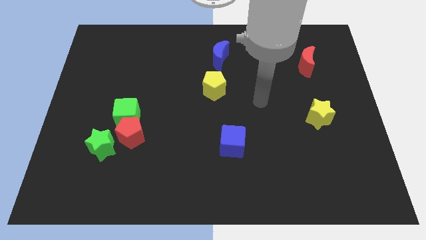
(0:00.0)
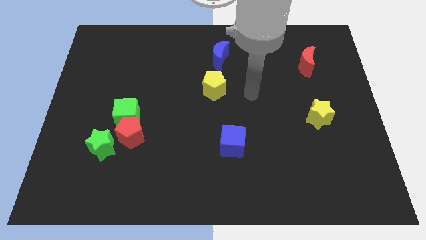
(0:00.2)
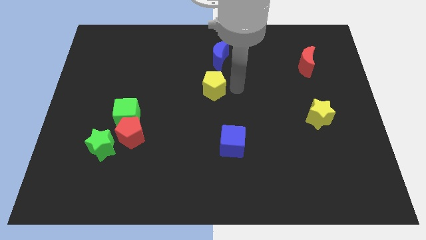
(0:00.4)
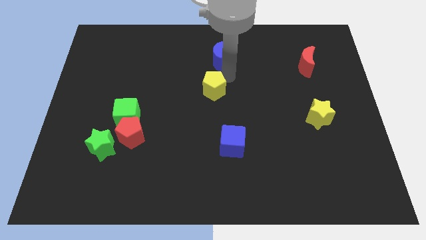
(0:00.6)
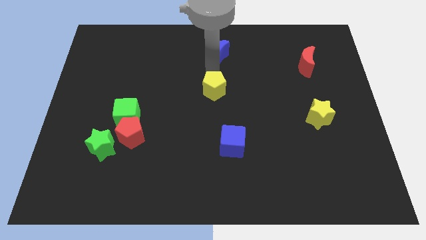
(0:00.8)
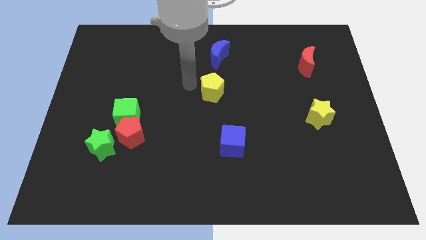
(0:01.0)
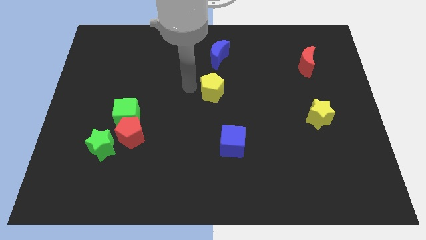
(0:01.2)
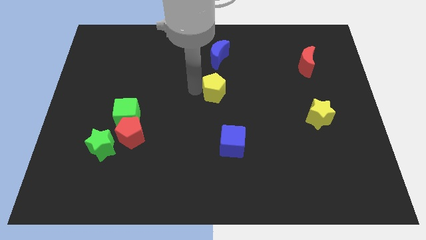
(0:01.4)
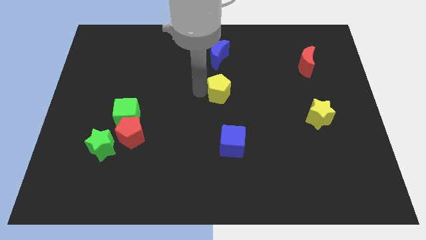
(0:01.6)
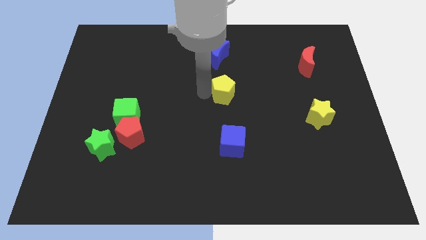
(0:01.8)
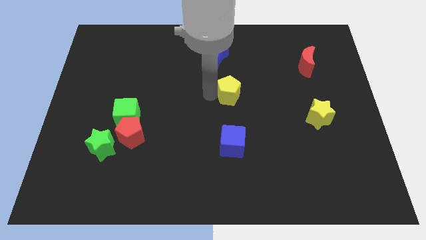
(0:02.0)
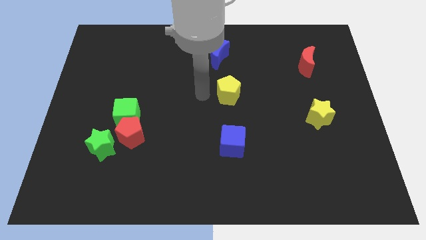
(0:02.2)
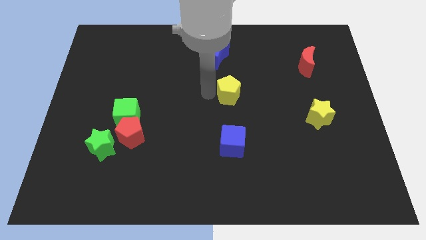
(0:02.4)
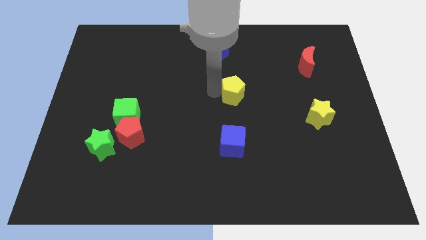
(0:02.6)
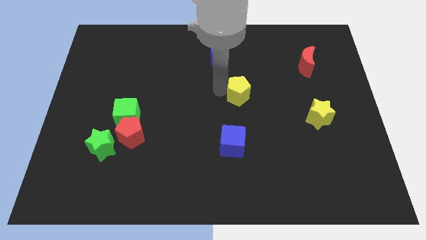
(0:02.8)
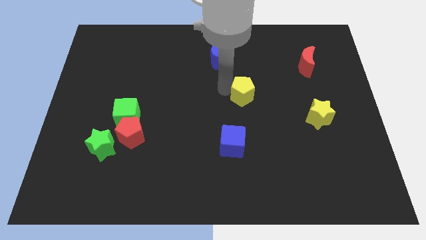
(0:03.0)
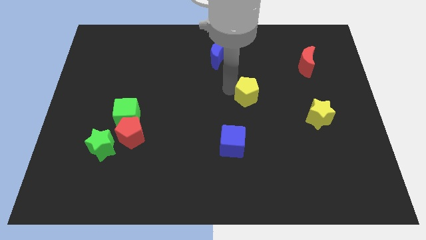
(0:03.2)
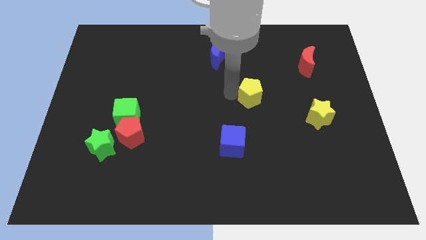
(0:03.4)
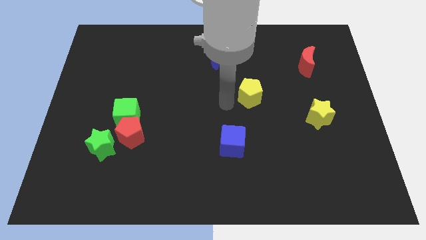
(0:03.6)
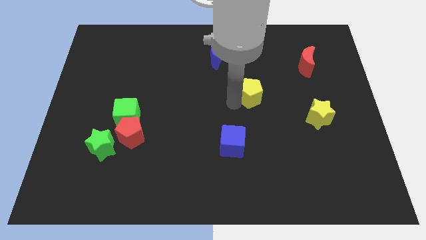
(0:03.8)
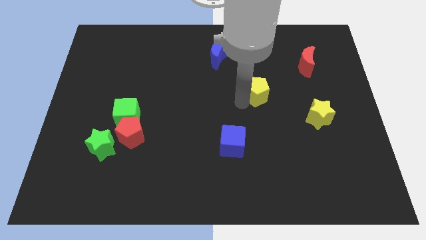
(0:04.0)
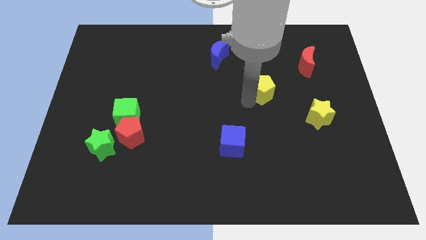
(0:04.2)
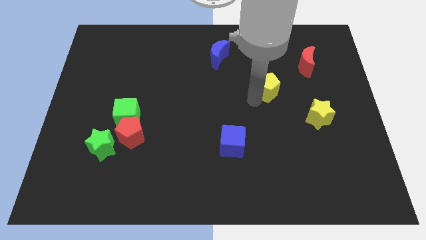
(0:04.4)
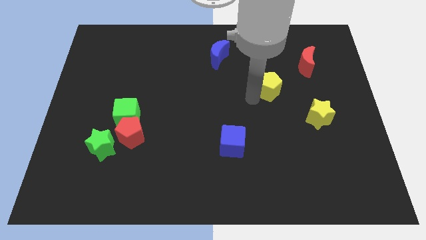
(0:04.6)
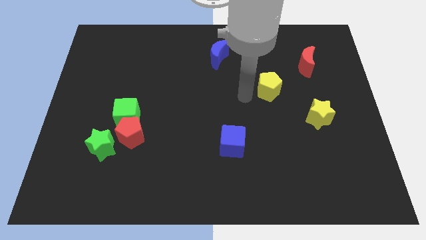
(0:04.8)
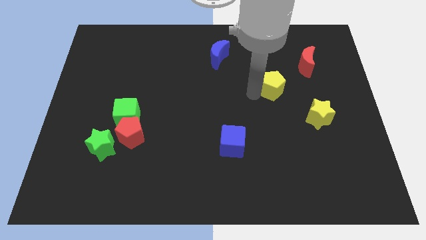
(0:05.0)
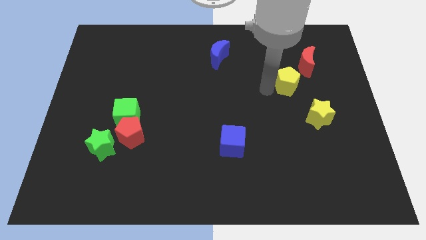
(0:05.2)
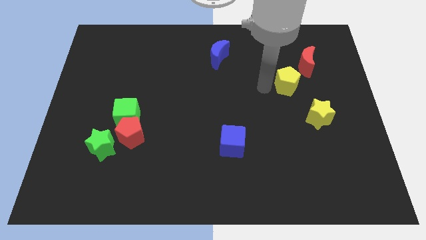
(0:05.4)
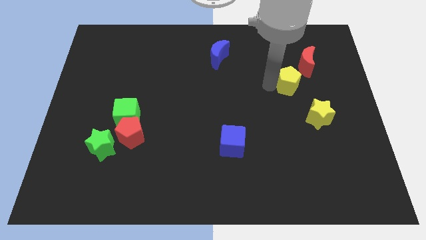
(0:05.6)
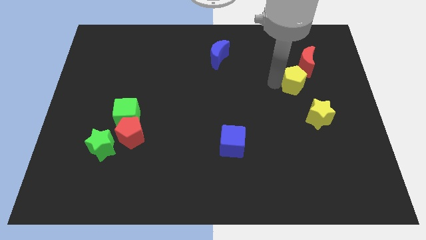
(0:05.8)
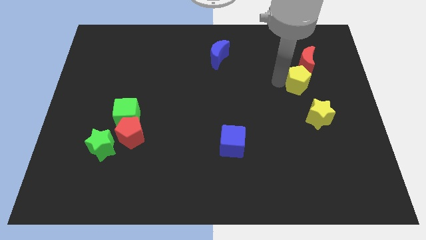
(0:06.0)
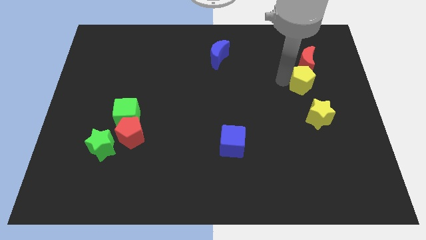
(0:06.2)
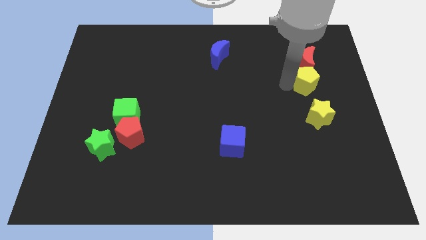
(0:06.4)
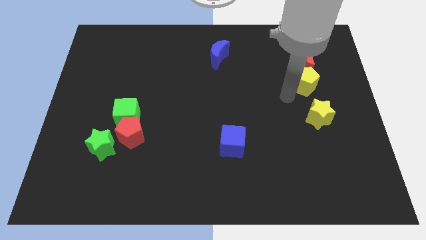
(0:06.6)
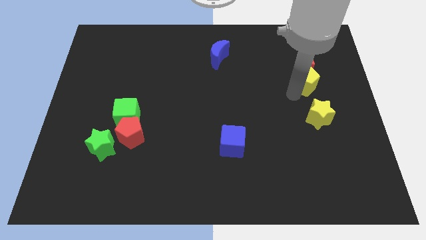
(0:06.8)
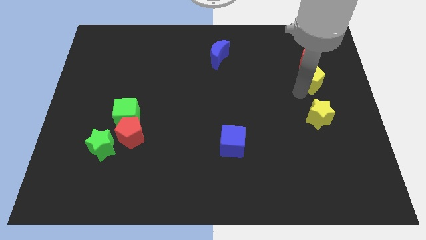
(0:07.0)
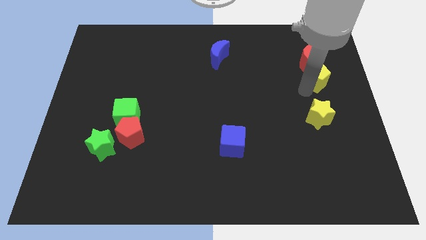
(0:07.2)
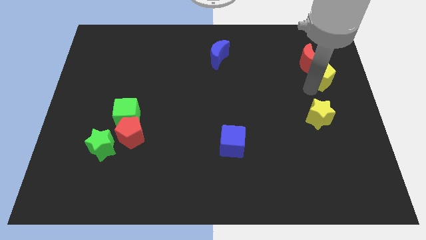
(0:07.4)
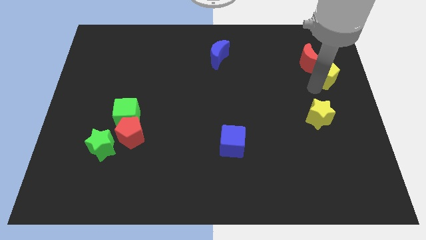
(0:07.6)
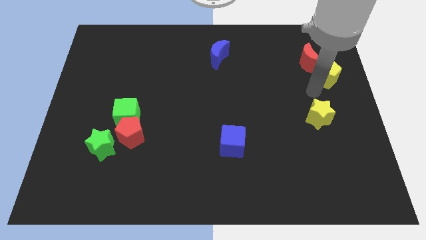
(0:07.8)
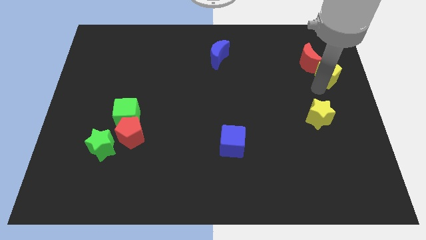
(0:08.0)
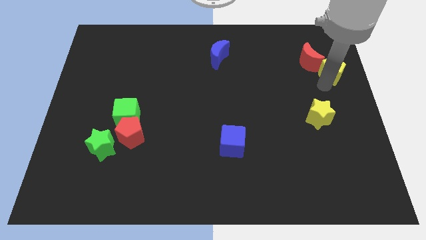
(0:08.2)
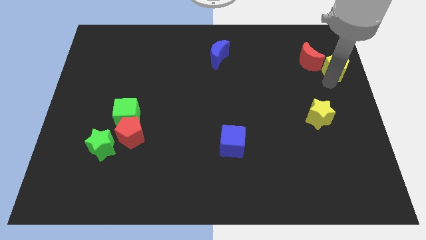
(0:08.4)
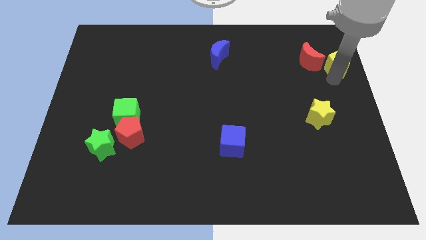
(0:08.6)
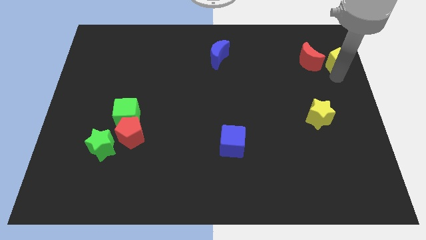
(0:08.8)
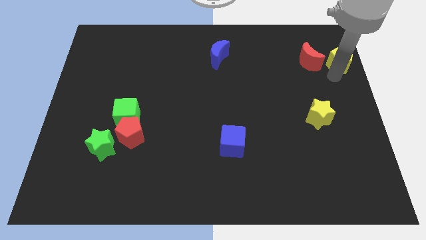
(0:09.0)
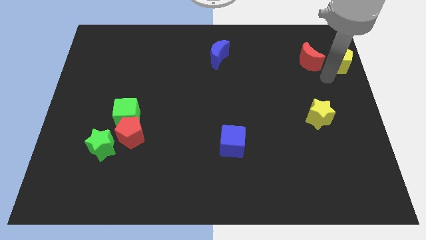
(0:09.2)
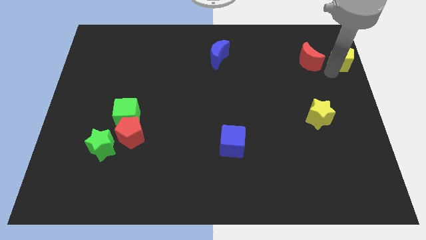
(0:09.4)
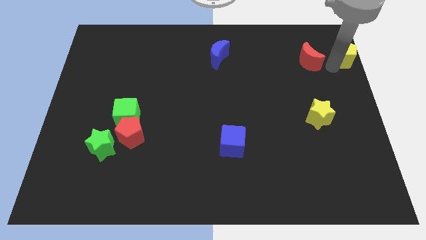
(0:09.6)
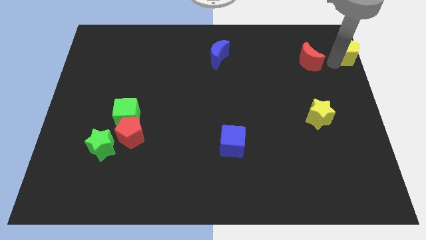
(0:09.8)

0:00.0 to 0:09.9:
slide the yellow pentagon to the top right of the board
